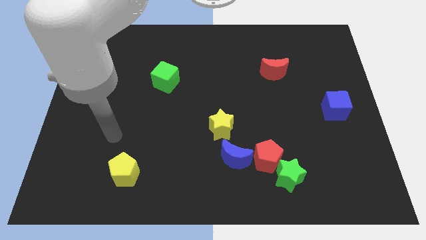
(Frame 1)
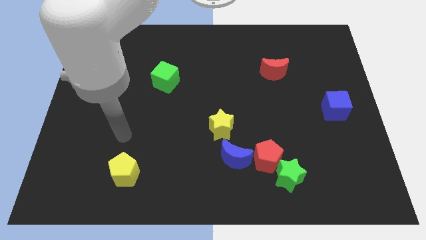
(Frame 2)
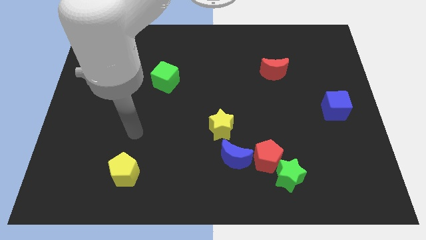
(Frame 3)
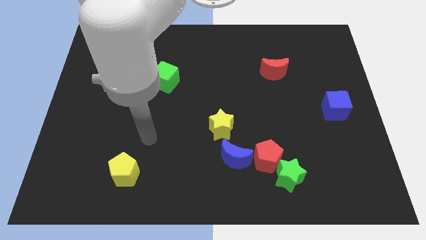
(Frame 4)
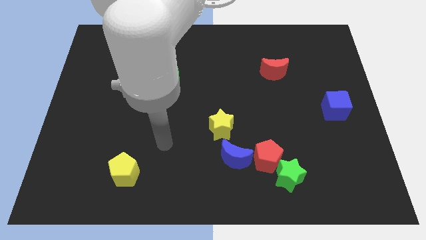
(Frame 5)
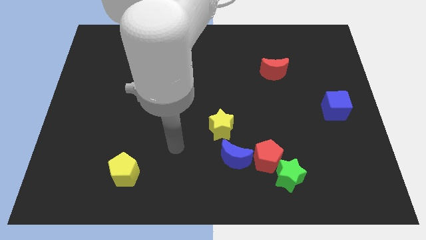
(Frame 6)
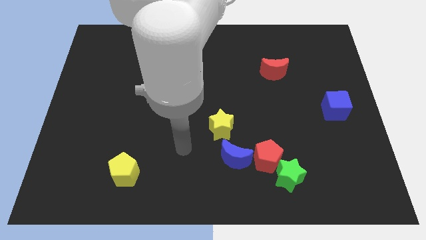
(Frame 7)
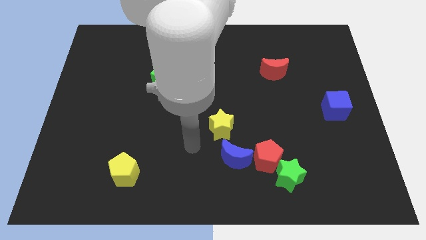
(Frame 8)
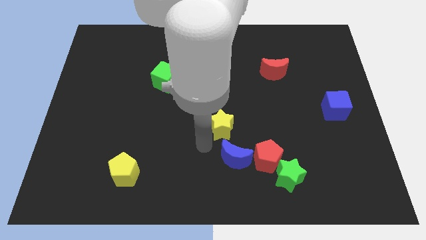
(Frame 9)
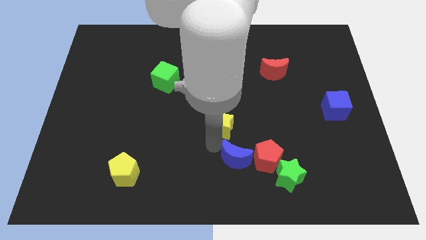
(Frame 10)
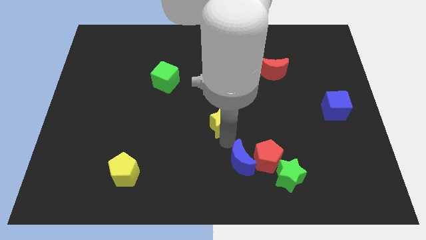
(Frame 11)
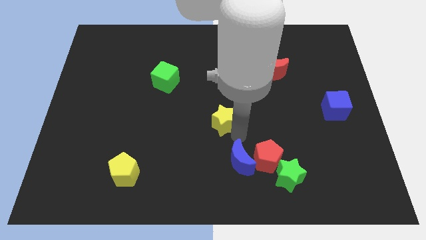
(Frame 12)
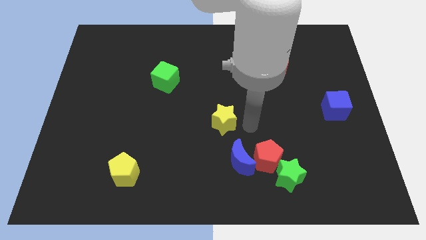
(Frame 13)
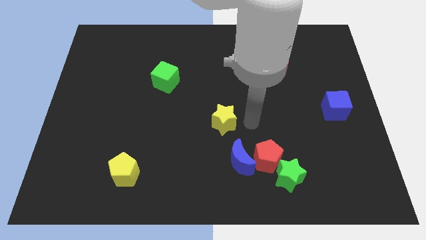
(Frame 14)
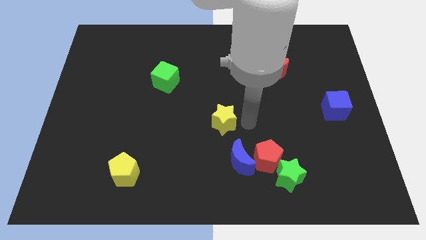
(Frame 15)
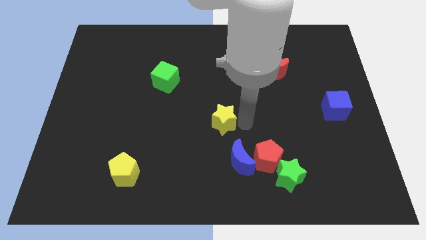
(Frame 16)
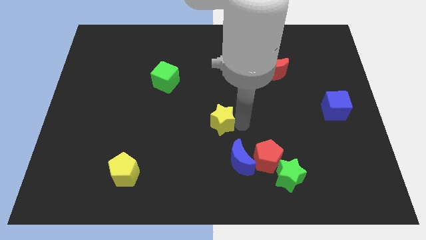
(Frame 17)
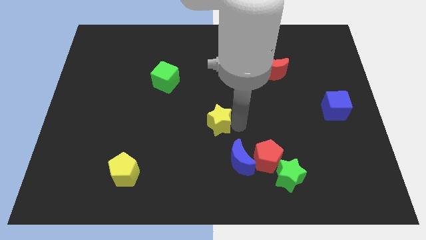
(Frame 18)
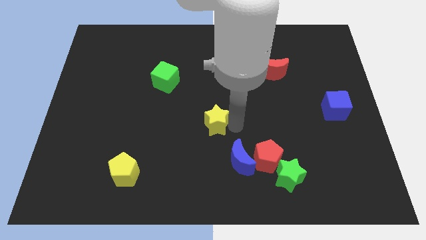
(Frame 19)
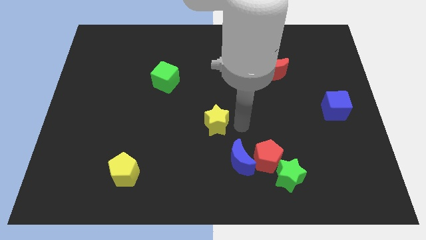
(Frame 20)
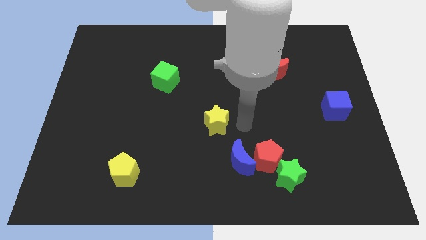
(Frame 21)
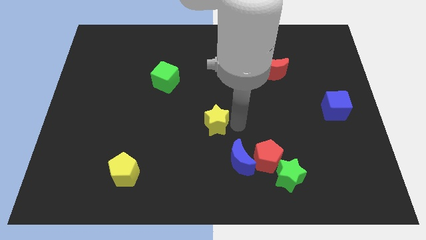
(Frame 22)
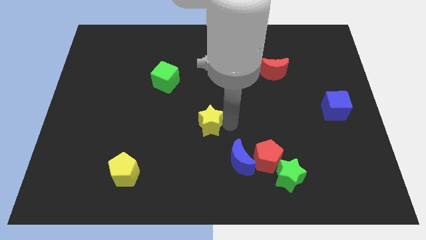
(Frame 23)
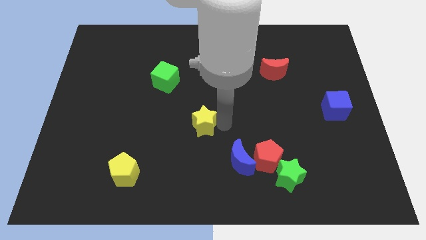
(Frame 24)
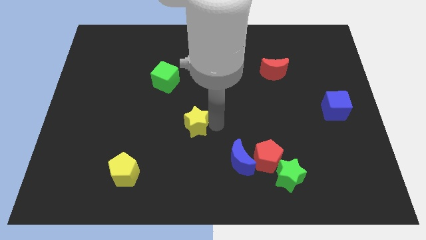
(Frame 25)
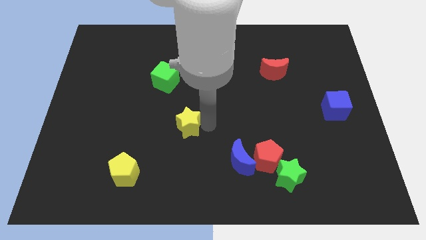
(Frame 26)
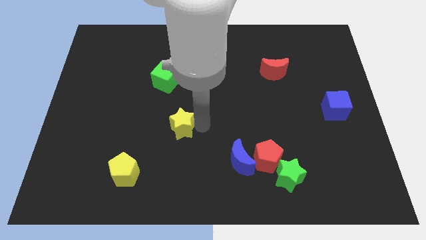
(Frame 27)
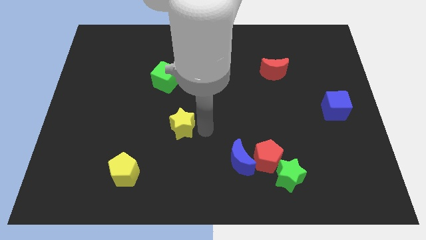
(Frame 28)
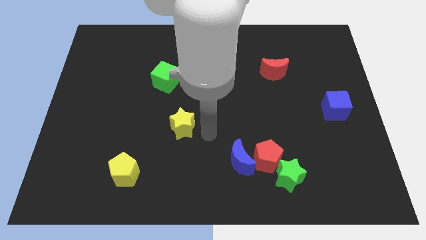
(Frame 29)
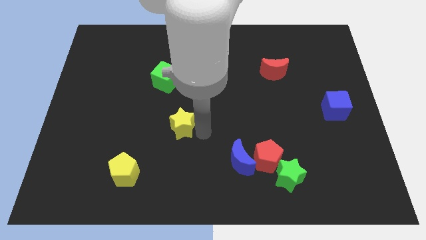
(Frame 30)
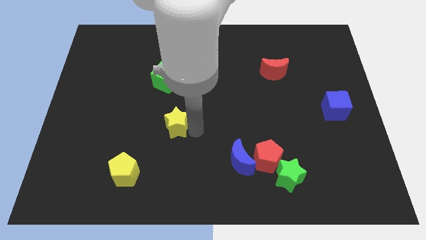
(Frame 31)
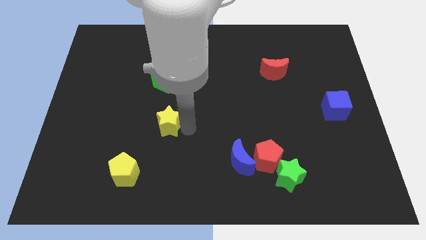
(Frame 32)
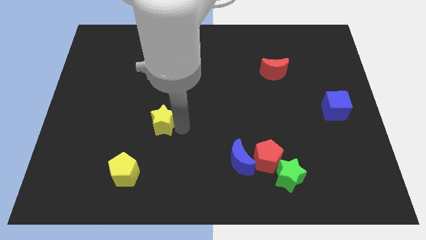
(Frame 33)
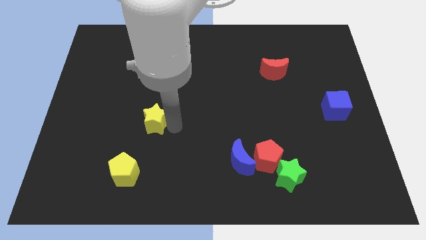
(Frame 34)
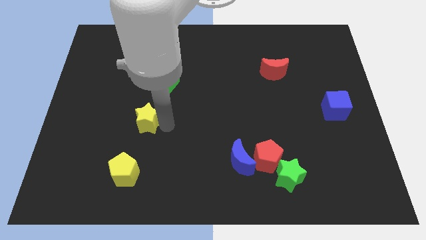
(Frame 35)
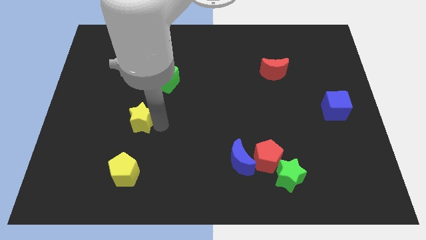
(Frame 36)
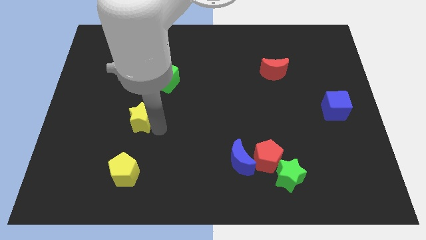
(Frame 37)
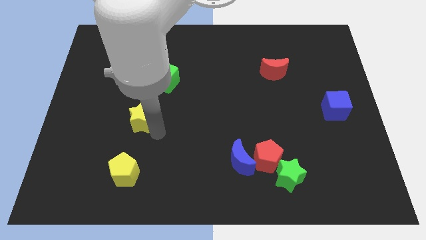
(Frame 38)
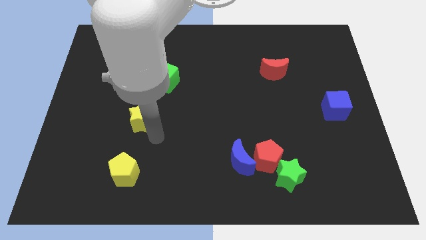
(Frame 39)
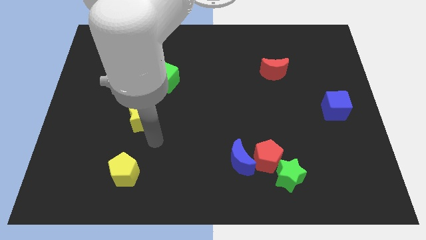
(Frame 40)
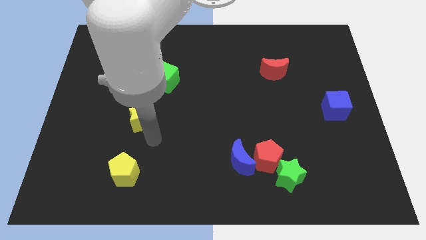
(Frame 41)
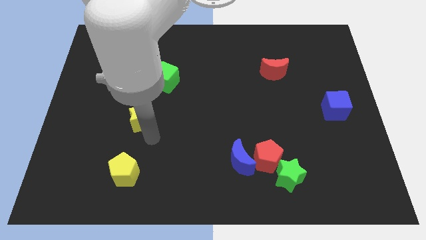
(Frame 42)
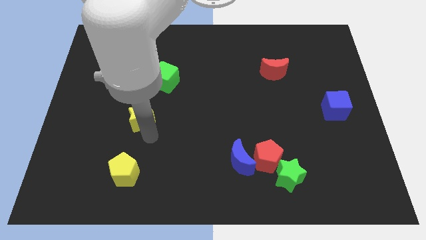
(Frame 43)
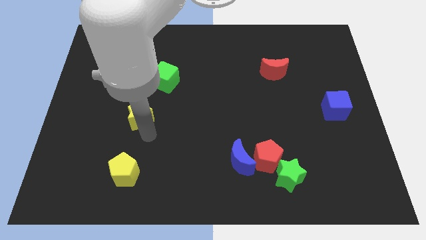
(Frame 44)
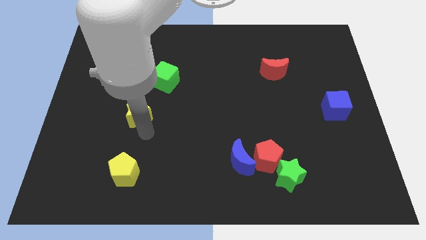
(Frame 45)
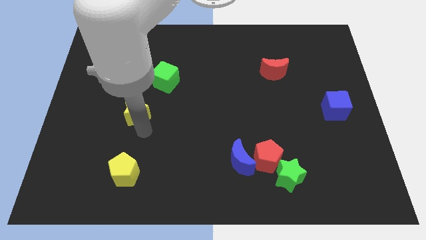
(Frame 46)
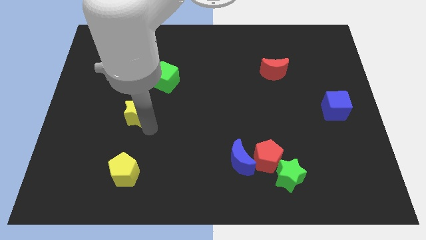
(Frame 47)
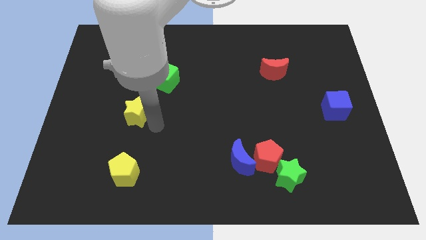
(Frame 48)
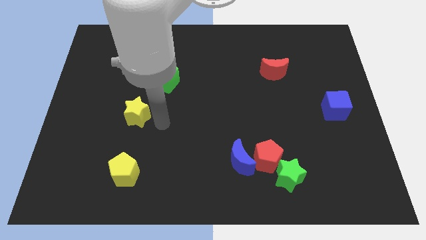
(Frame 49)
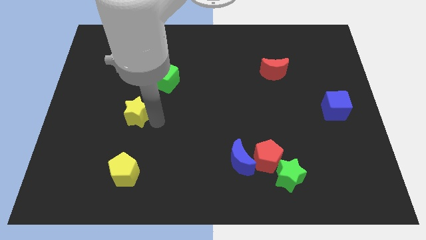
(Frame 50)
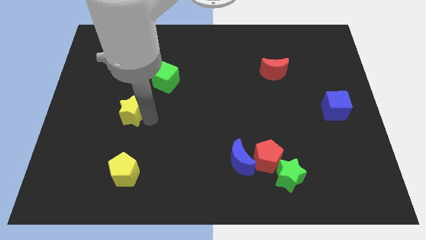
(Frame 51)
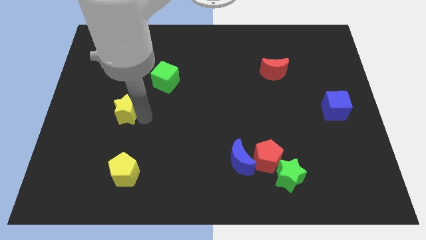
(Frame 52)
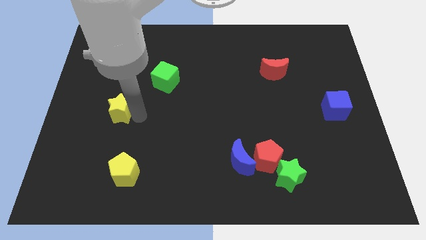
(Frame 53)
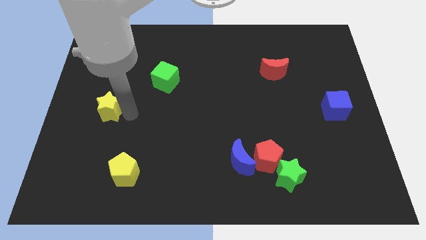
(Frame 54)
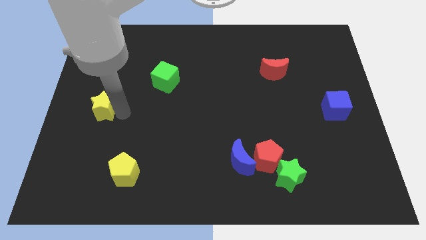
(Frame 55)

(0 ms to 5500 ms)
slide the yellow star to the center left
